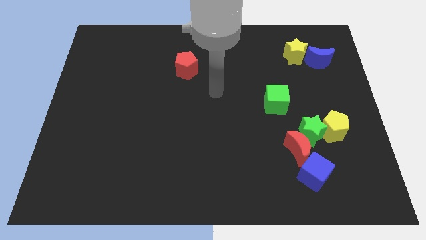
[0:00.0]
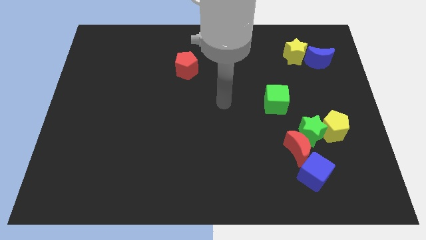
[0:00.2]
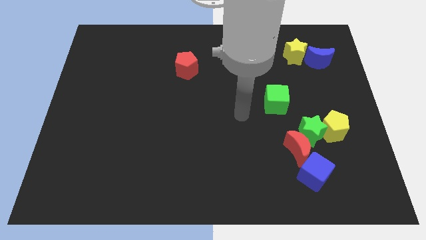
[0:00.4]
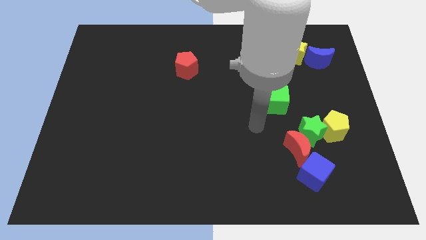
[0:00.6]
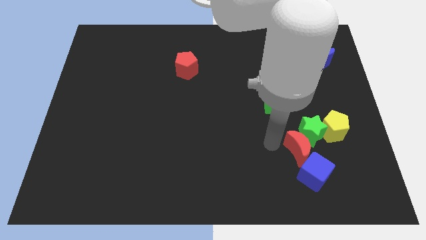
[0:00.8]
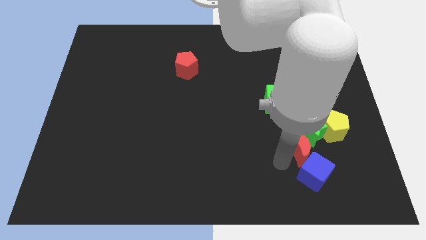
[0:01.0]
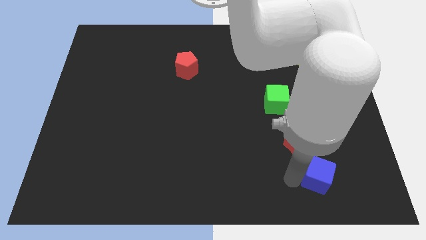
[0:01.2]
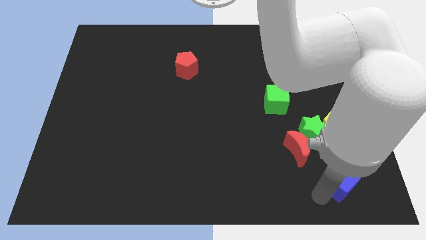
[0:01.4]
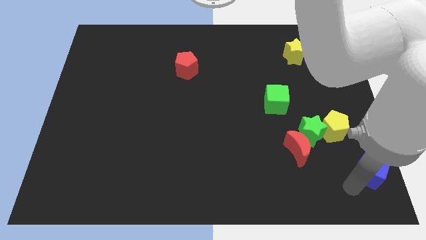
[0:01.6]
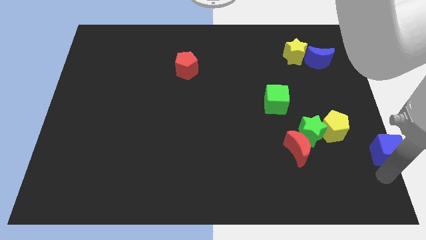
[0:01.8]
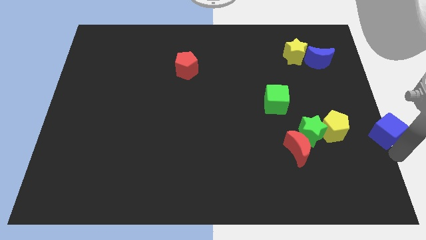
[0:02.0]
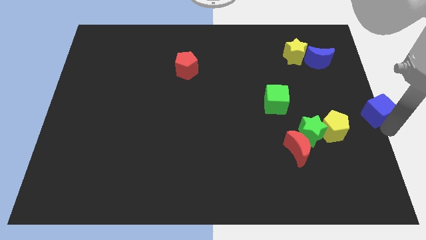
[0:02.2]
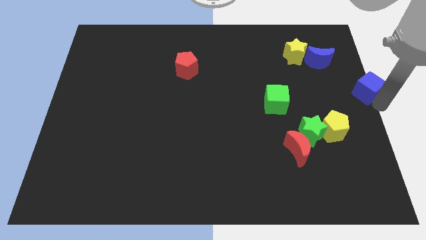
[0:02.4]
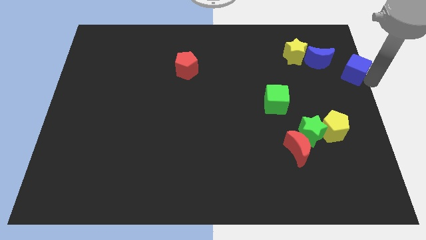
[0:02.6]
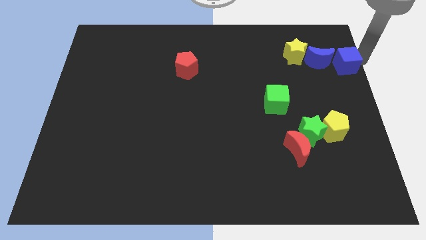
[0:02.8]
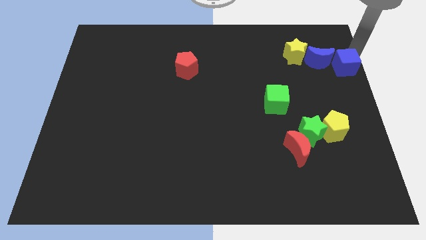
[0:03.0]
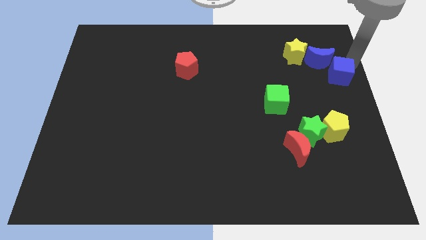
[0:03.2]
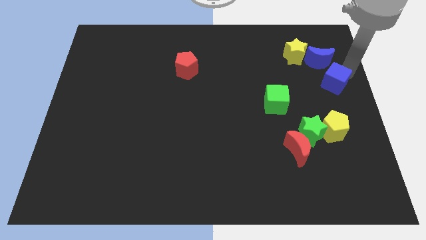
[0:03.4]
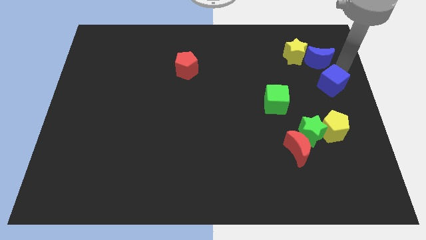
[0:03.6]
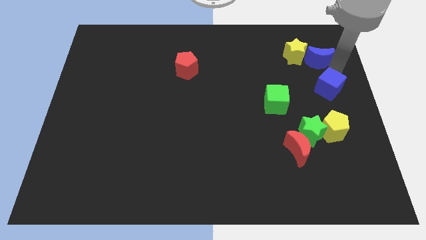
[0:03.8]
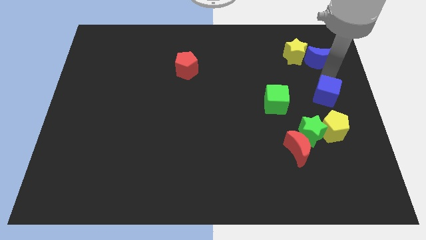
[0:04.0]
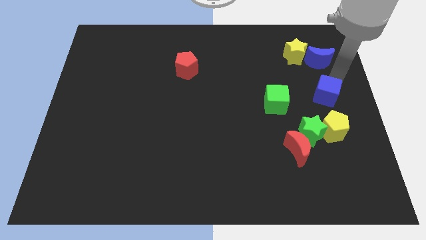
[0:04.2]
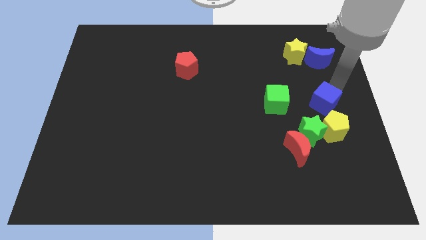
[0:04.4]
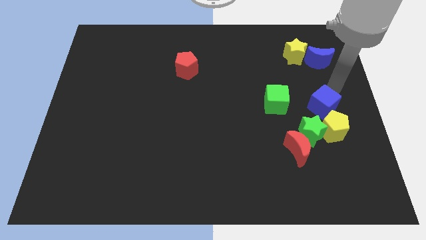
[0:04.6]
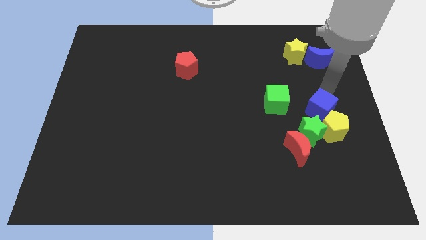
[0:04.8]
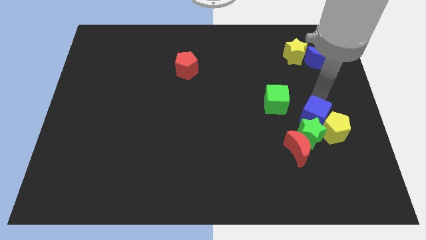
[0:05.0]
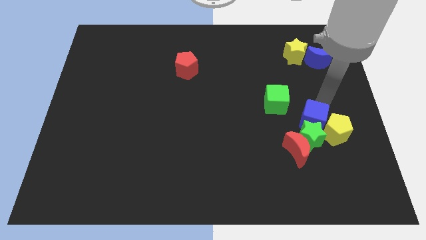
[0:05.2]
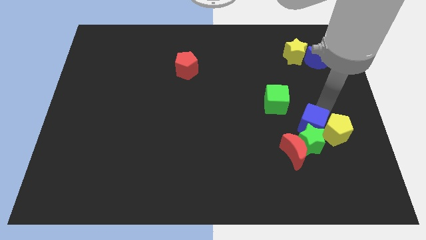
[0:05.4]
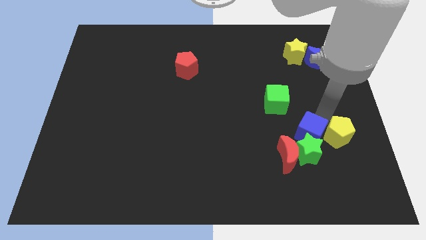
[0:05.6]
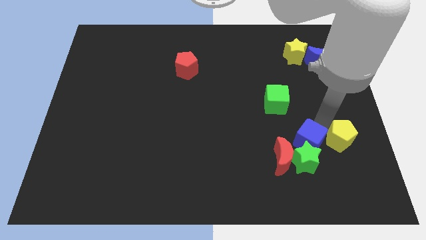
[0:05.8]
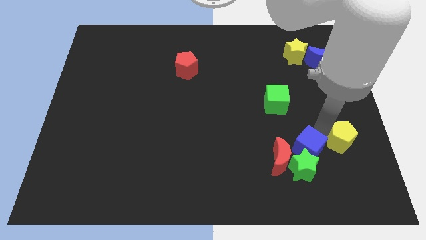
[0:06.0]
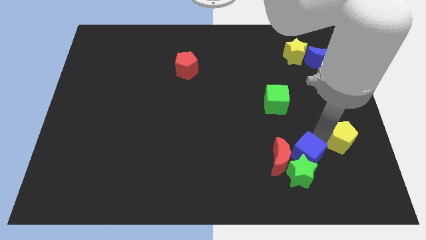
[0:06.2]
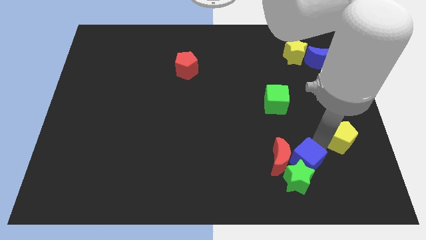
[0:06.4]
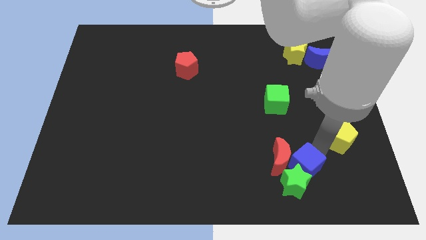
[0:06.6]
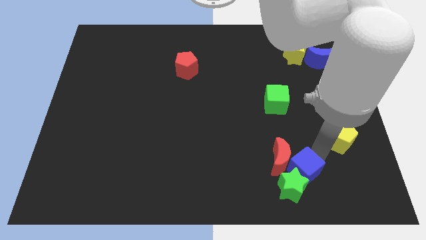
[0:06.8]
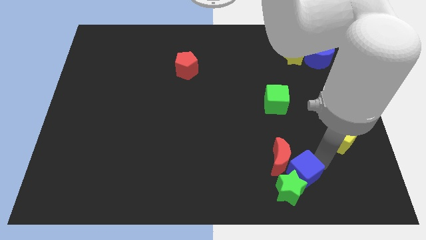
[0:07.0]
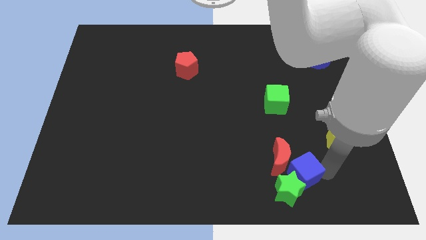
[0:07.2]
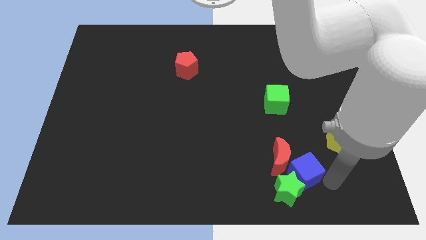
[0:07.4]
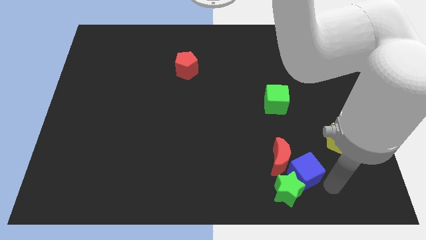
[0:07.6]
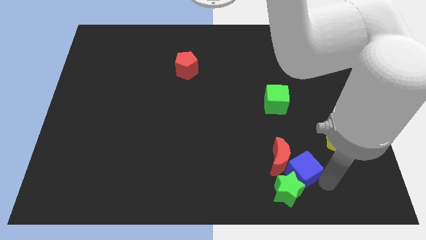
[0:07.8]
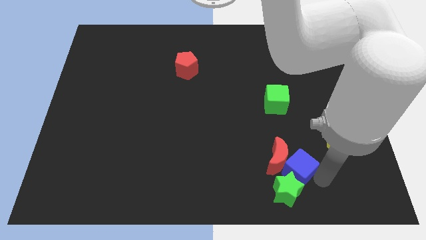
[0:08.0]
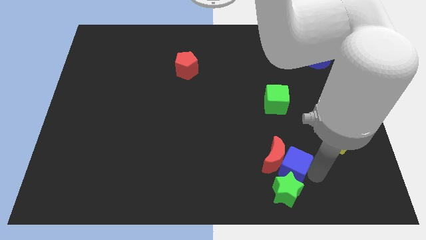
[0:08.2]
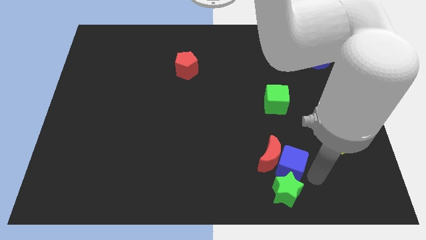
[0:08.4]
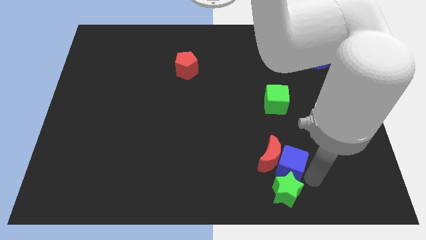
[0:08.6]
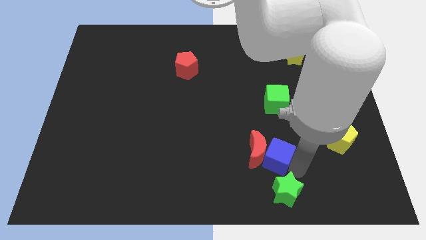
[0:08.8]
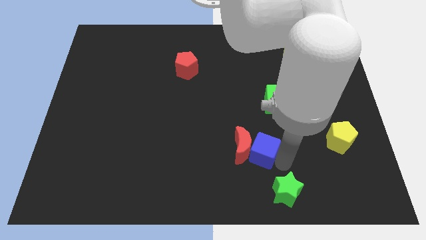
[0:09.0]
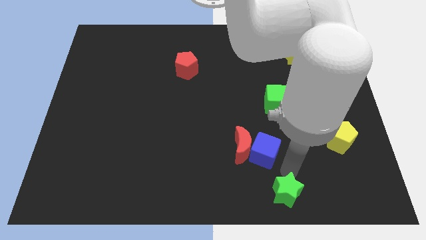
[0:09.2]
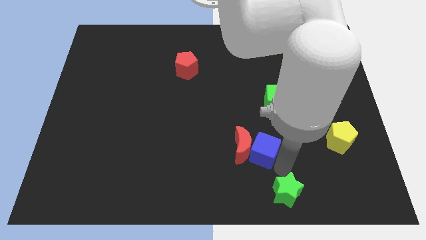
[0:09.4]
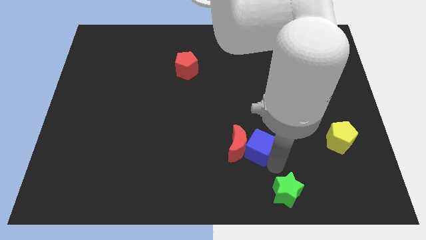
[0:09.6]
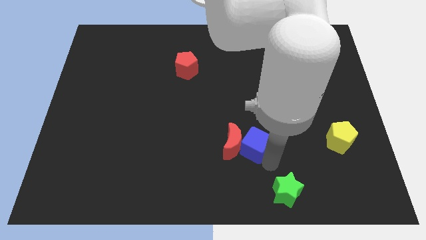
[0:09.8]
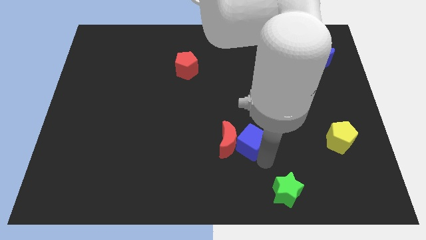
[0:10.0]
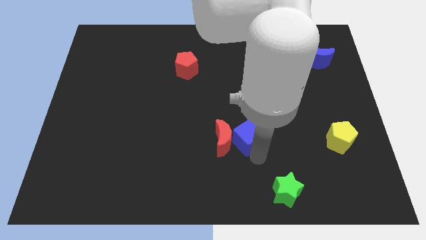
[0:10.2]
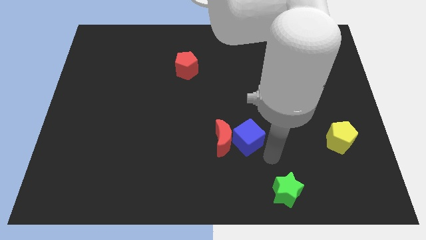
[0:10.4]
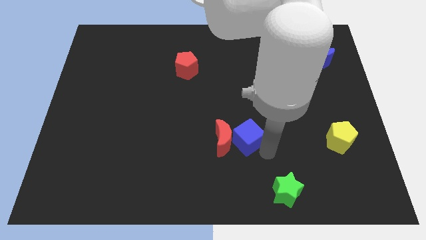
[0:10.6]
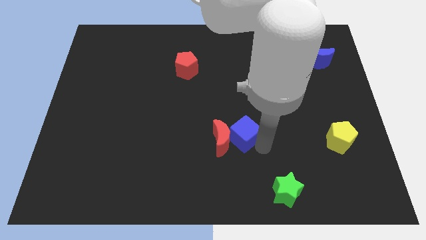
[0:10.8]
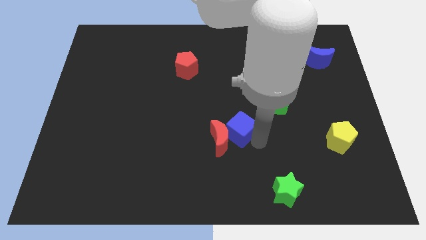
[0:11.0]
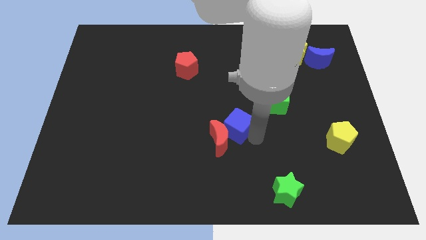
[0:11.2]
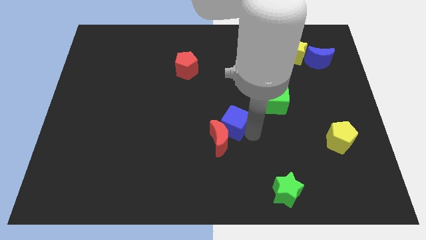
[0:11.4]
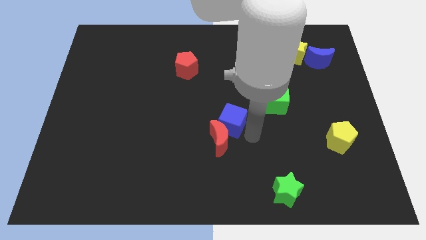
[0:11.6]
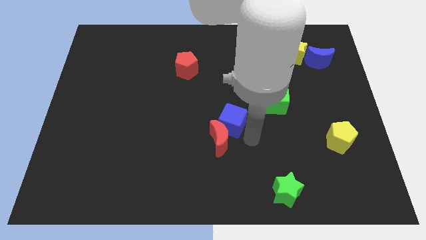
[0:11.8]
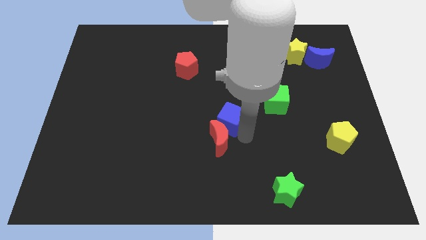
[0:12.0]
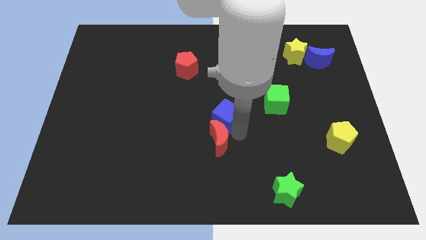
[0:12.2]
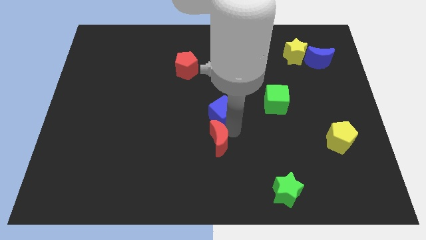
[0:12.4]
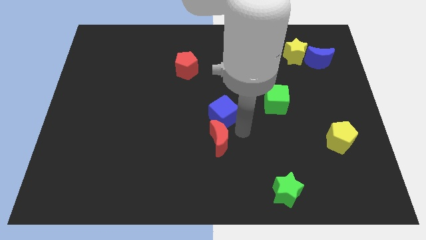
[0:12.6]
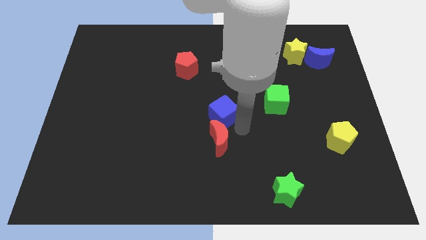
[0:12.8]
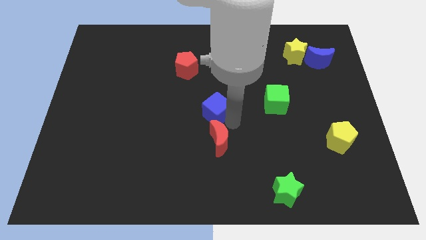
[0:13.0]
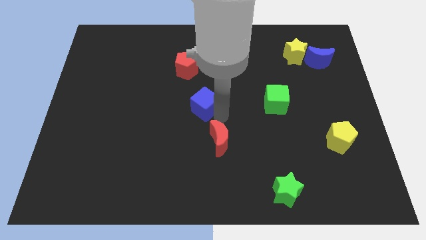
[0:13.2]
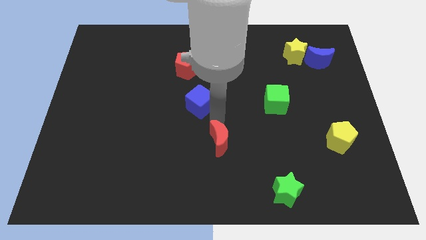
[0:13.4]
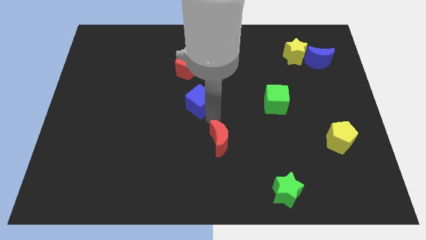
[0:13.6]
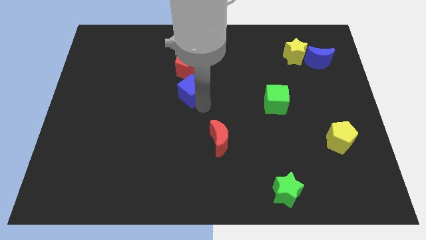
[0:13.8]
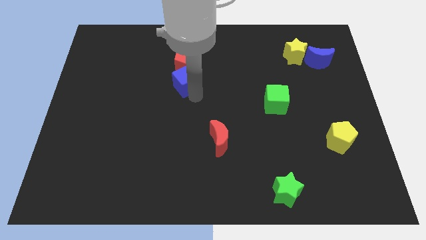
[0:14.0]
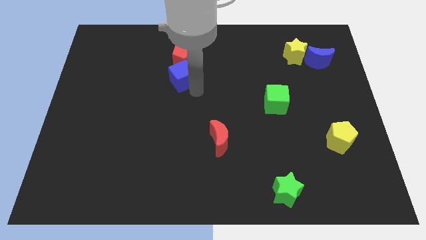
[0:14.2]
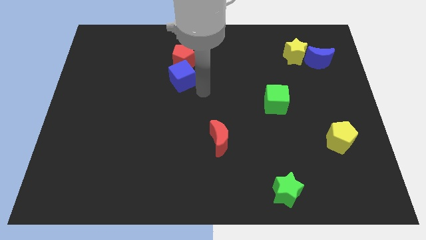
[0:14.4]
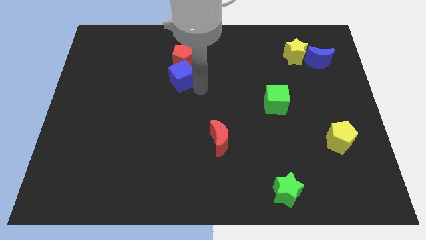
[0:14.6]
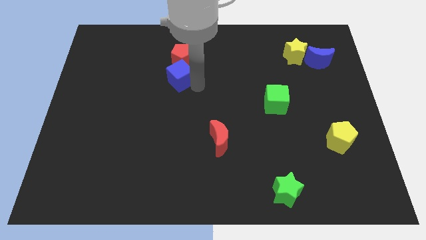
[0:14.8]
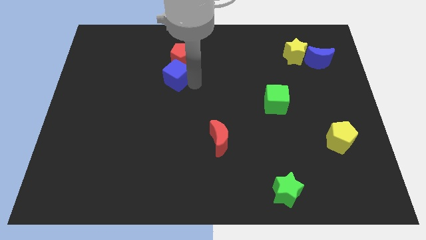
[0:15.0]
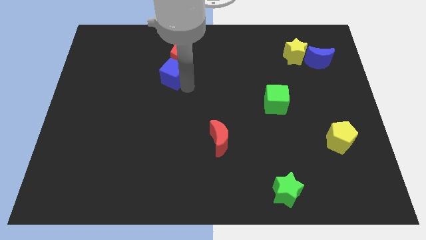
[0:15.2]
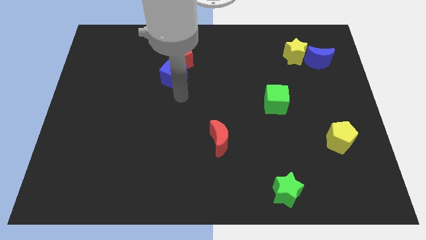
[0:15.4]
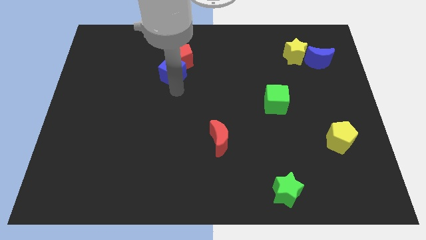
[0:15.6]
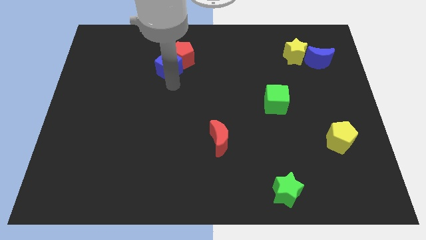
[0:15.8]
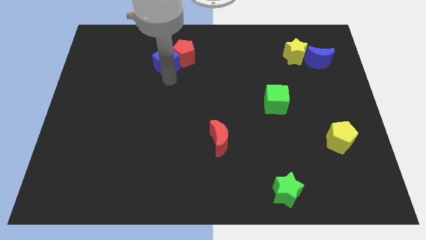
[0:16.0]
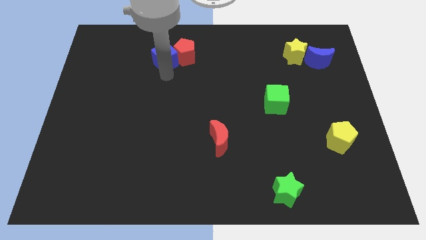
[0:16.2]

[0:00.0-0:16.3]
slide the blue cube diagonally up and to the left of the red pentagon
